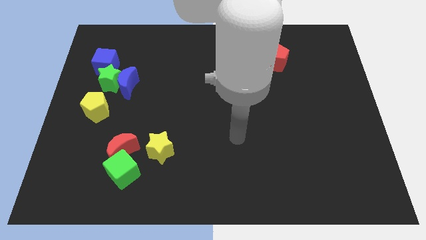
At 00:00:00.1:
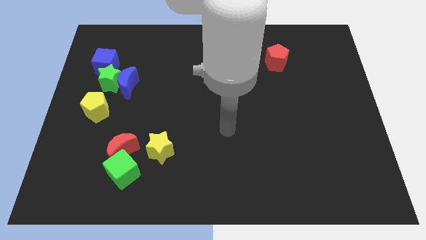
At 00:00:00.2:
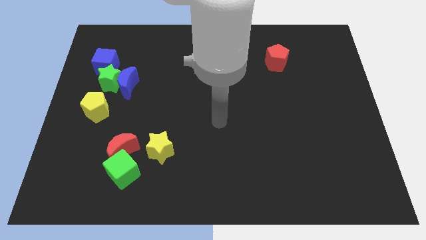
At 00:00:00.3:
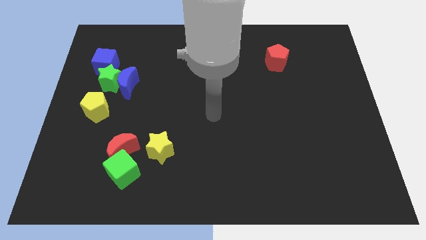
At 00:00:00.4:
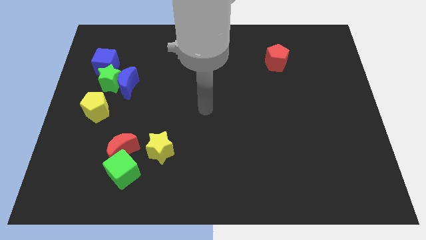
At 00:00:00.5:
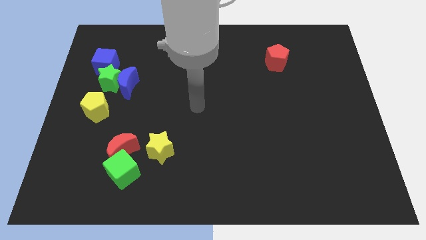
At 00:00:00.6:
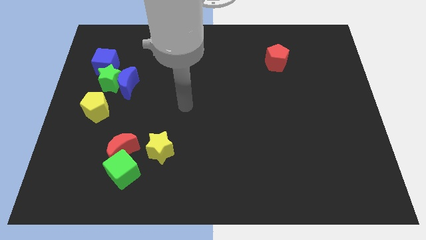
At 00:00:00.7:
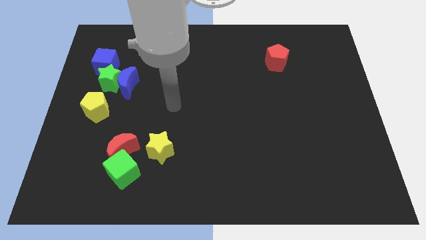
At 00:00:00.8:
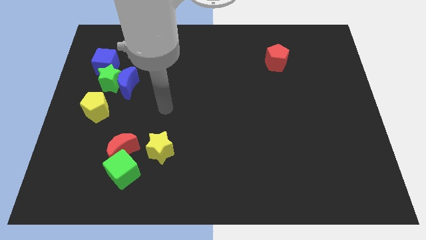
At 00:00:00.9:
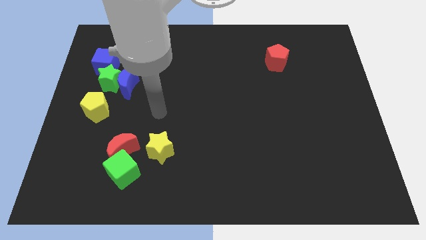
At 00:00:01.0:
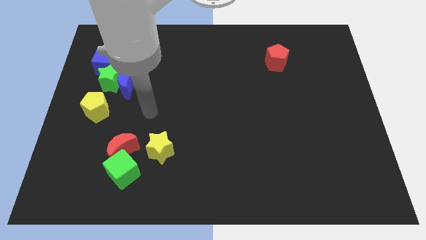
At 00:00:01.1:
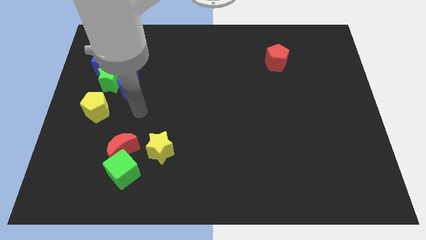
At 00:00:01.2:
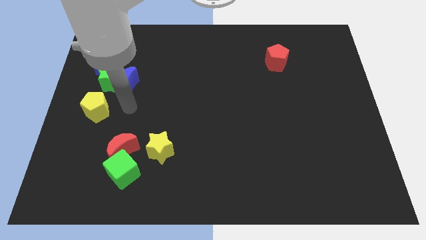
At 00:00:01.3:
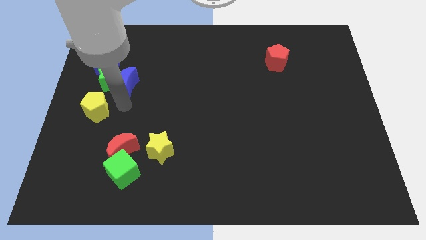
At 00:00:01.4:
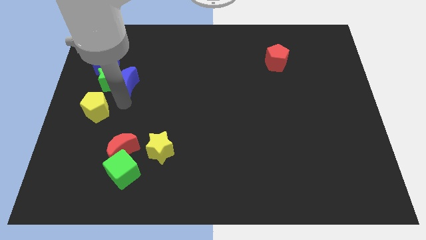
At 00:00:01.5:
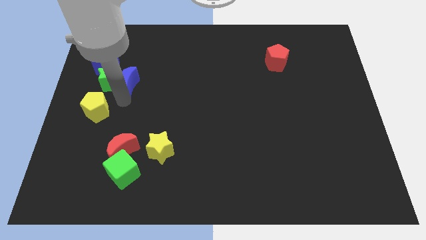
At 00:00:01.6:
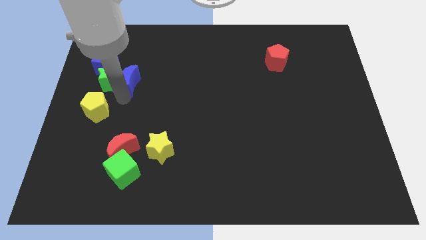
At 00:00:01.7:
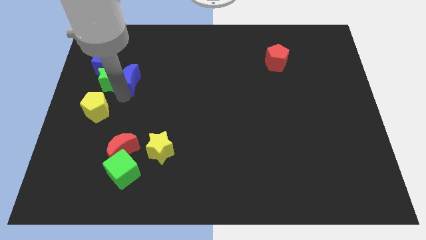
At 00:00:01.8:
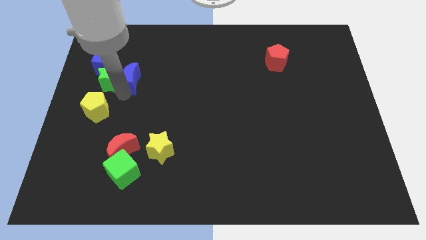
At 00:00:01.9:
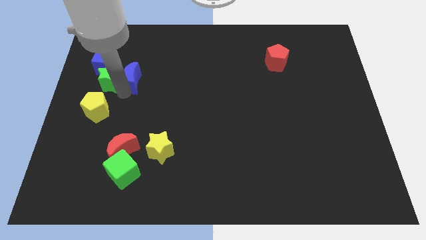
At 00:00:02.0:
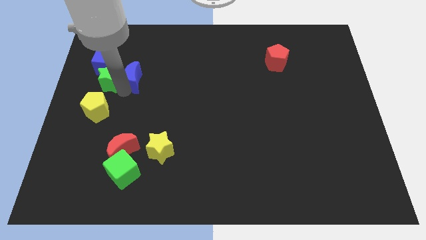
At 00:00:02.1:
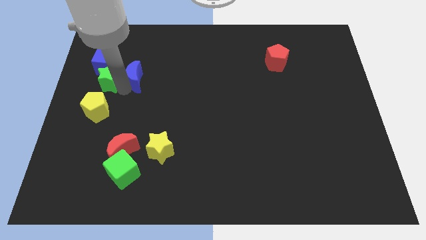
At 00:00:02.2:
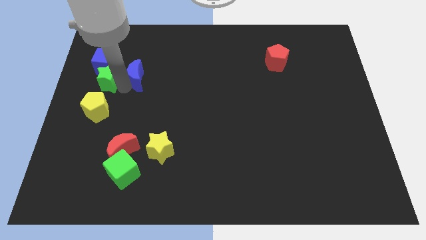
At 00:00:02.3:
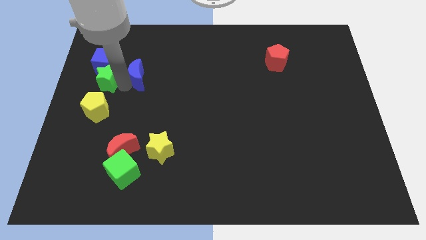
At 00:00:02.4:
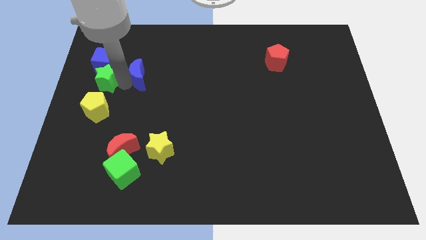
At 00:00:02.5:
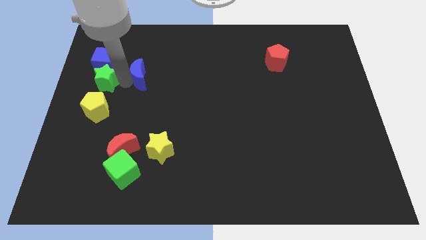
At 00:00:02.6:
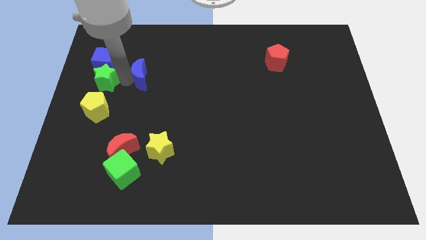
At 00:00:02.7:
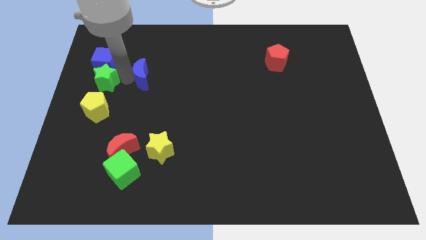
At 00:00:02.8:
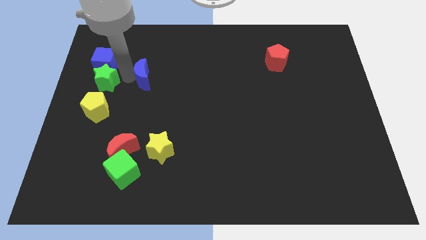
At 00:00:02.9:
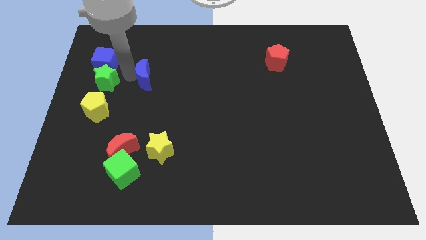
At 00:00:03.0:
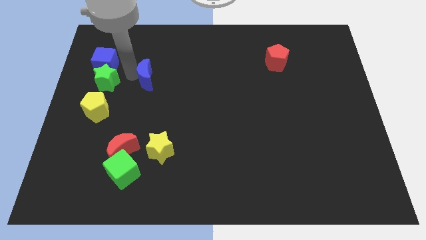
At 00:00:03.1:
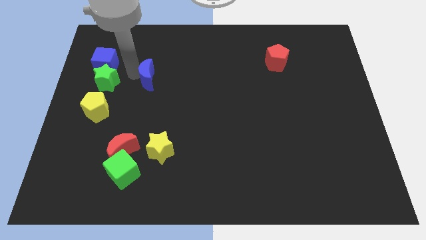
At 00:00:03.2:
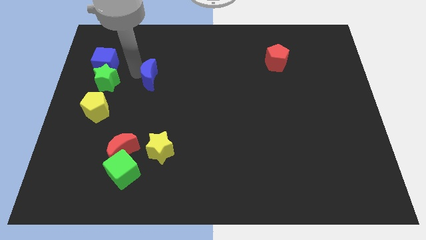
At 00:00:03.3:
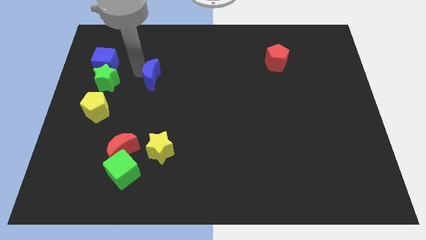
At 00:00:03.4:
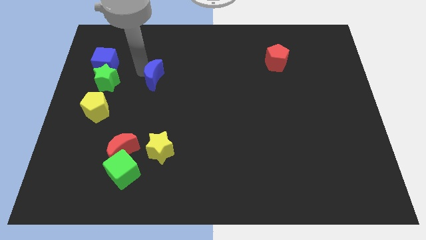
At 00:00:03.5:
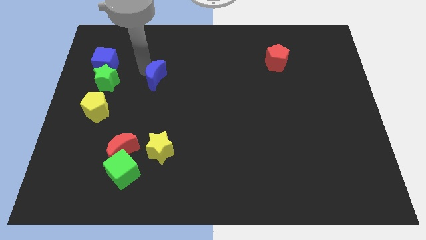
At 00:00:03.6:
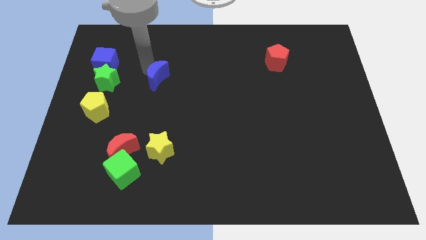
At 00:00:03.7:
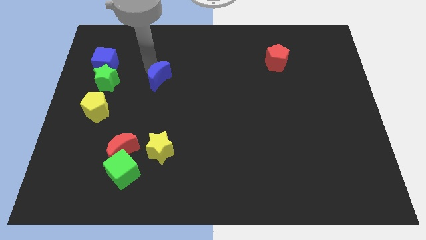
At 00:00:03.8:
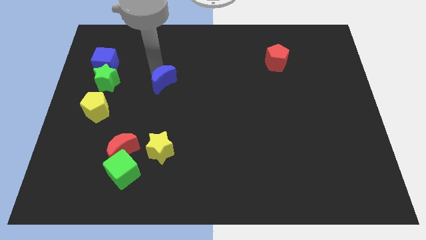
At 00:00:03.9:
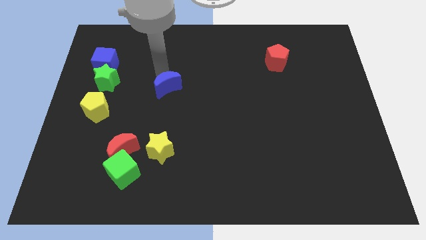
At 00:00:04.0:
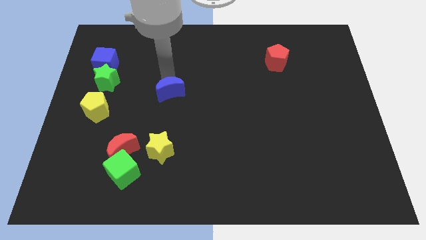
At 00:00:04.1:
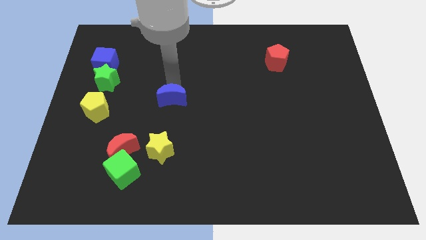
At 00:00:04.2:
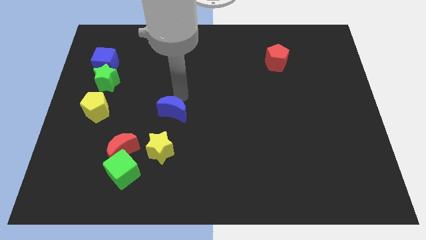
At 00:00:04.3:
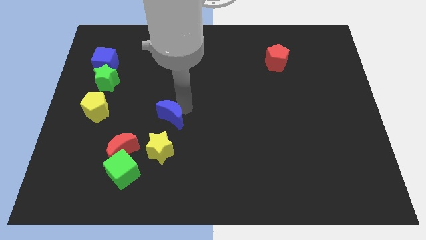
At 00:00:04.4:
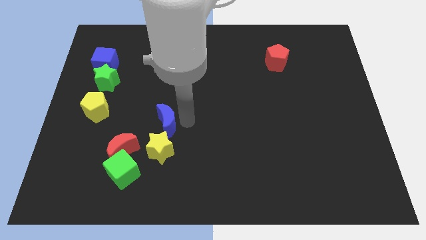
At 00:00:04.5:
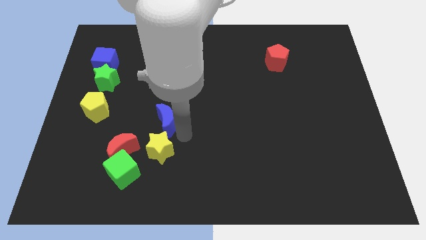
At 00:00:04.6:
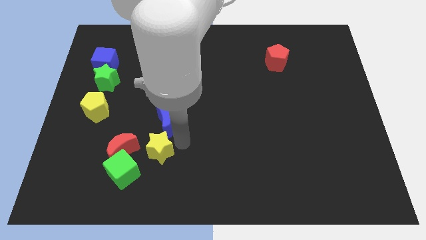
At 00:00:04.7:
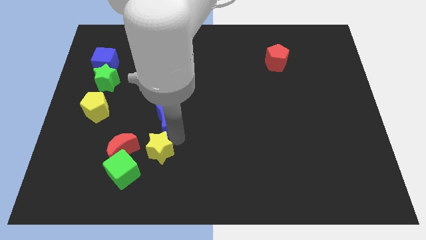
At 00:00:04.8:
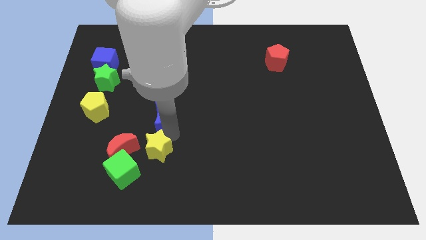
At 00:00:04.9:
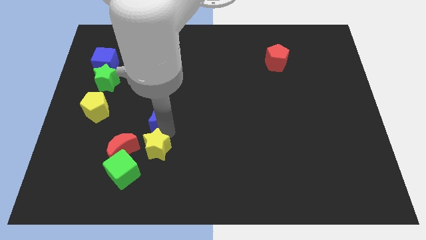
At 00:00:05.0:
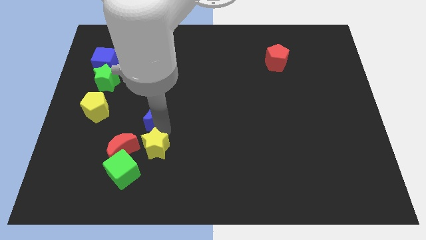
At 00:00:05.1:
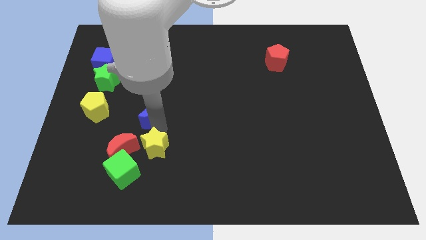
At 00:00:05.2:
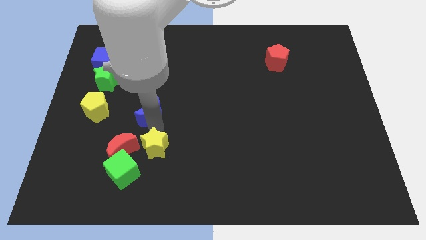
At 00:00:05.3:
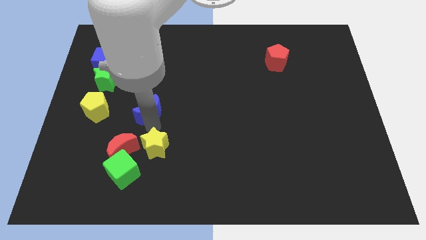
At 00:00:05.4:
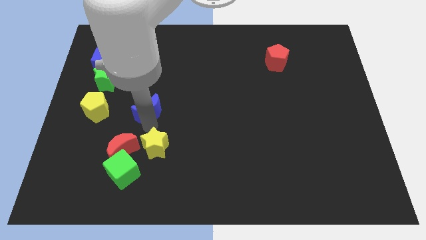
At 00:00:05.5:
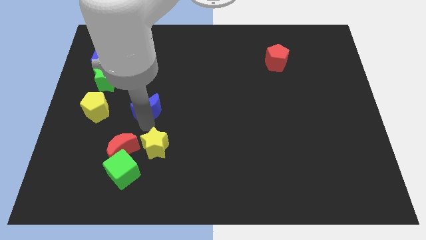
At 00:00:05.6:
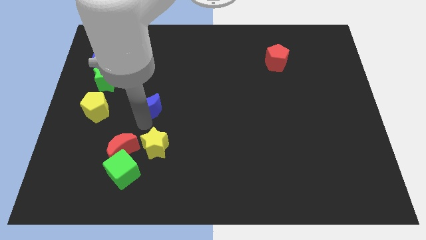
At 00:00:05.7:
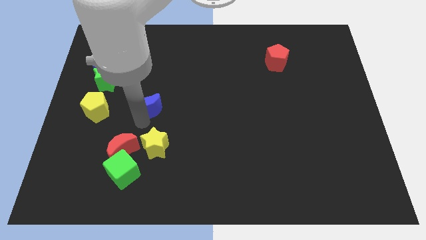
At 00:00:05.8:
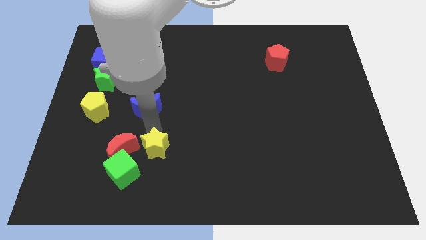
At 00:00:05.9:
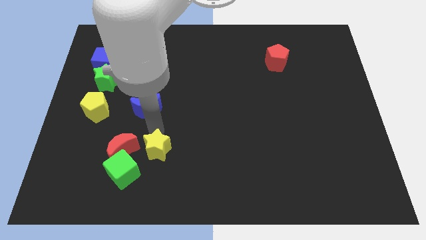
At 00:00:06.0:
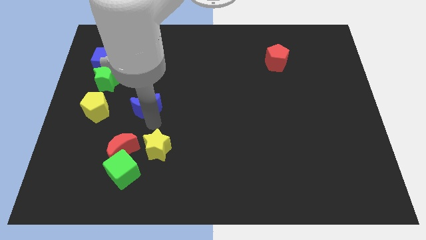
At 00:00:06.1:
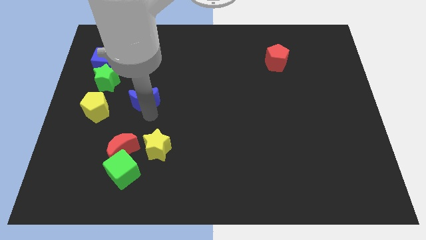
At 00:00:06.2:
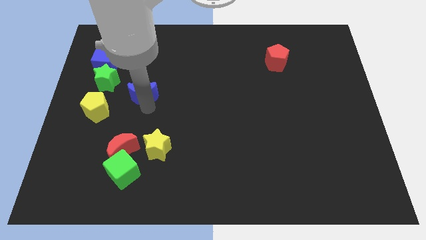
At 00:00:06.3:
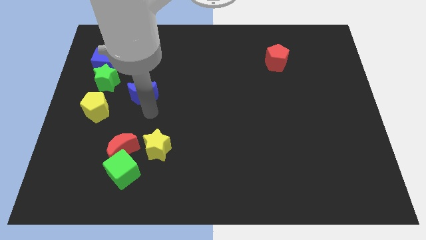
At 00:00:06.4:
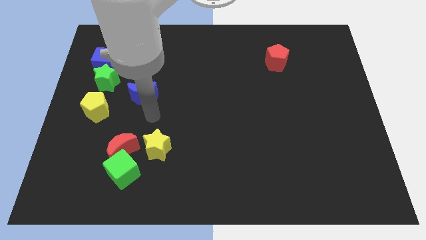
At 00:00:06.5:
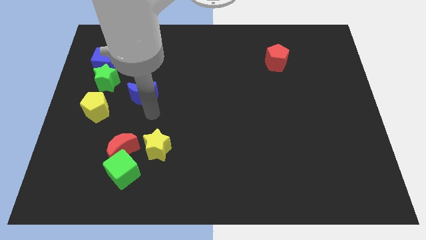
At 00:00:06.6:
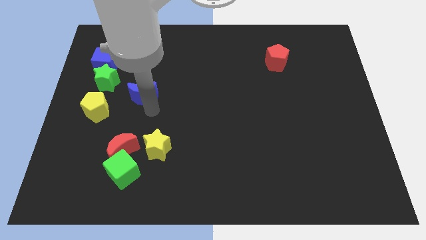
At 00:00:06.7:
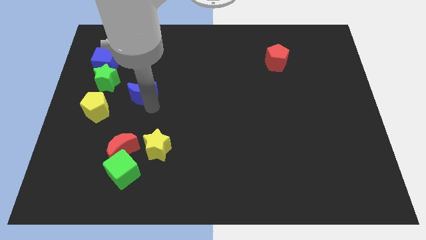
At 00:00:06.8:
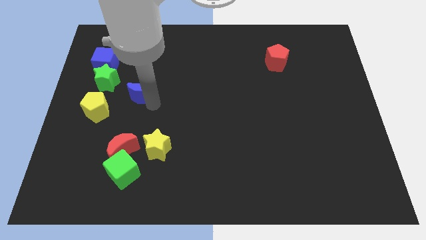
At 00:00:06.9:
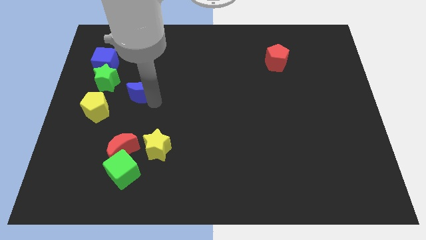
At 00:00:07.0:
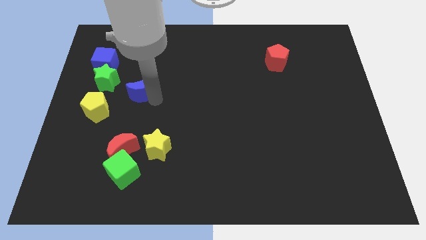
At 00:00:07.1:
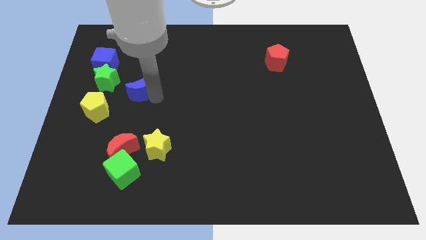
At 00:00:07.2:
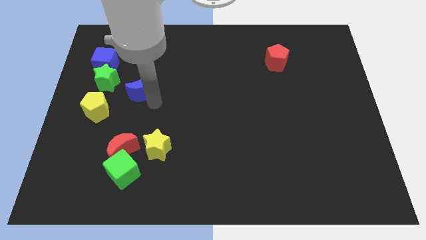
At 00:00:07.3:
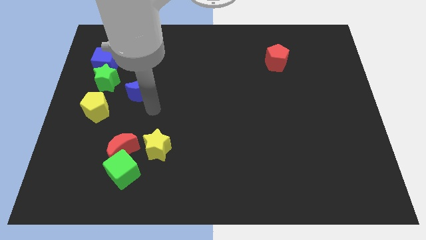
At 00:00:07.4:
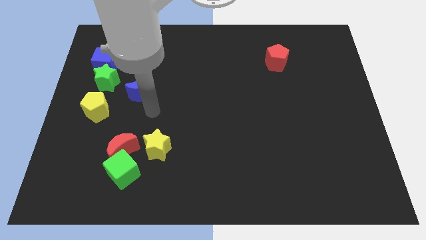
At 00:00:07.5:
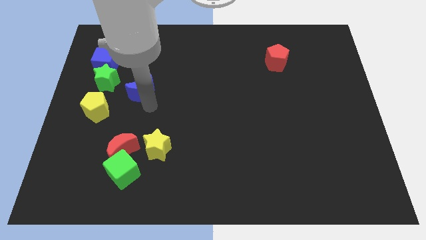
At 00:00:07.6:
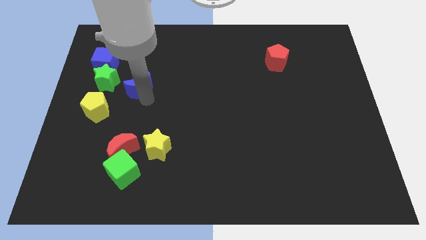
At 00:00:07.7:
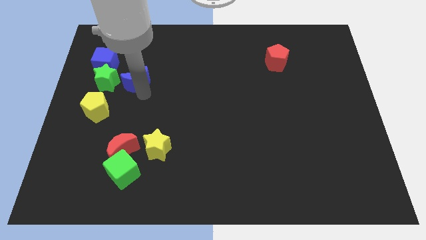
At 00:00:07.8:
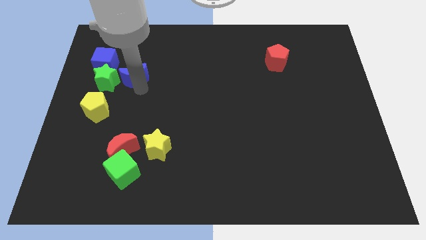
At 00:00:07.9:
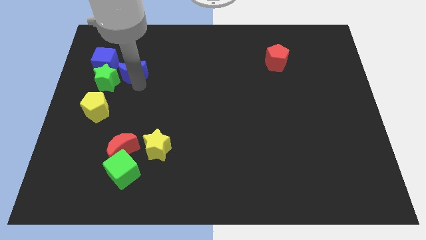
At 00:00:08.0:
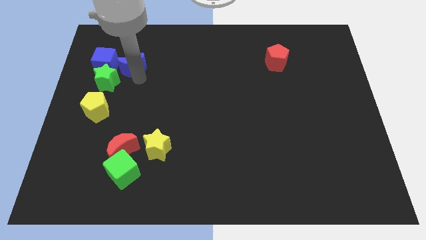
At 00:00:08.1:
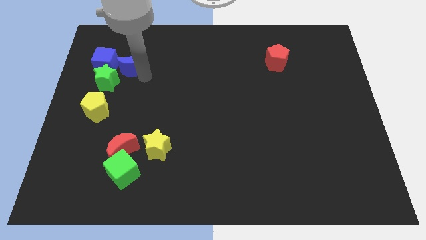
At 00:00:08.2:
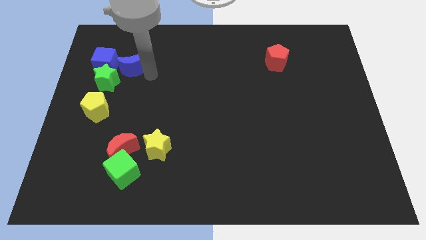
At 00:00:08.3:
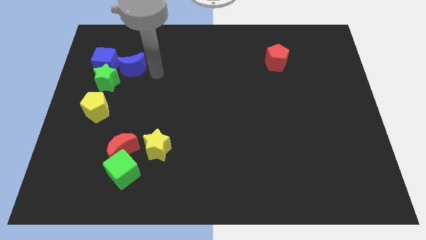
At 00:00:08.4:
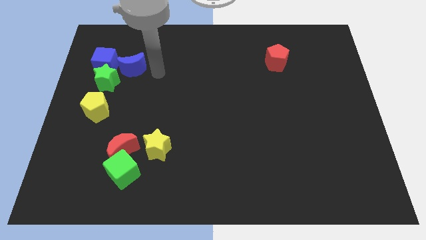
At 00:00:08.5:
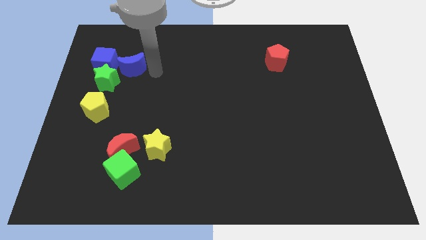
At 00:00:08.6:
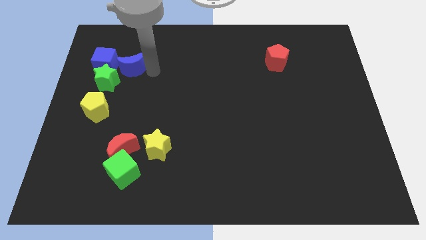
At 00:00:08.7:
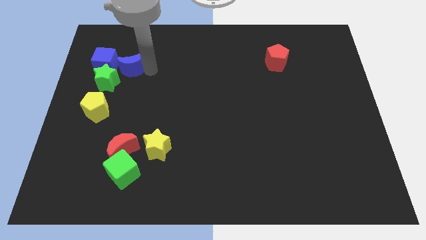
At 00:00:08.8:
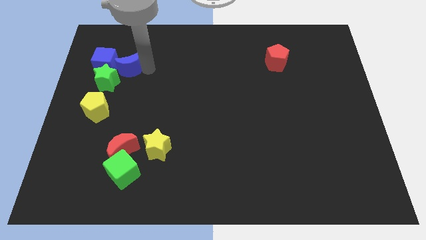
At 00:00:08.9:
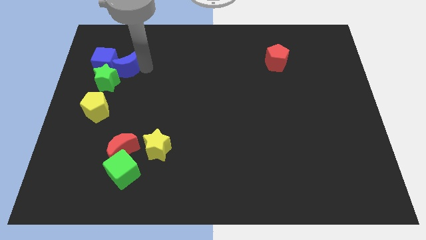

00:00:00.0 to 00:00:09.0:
move the blue moon next to the blue cube
